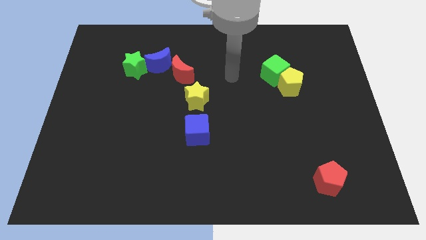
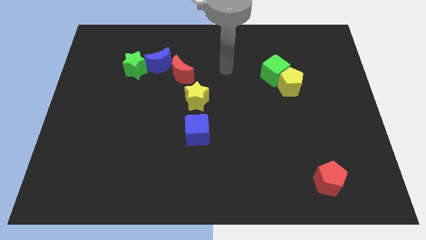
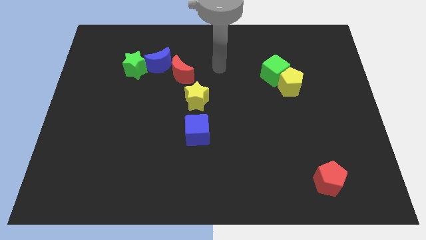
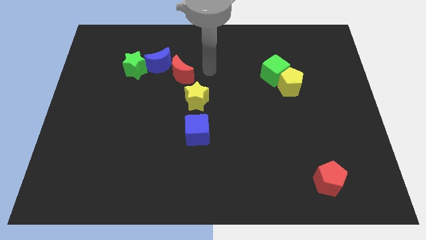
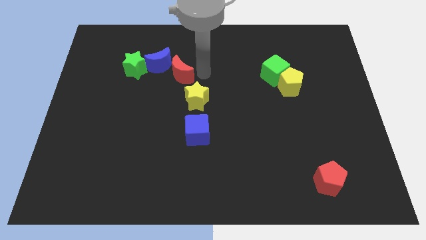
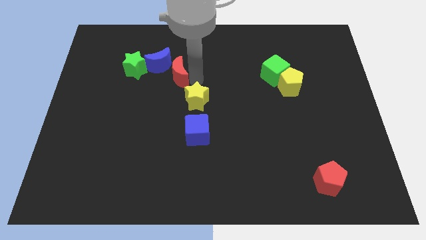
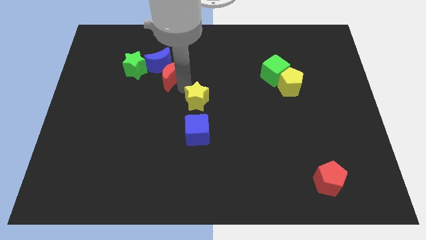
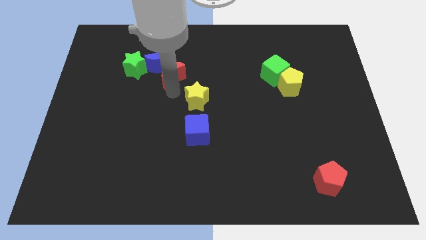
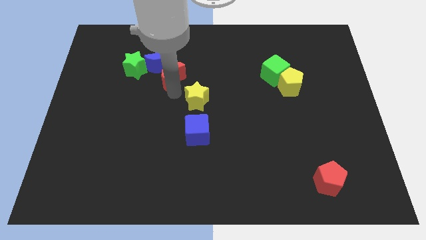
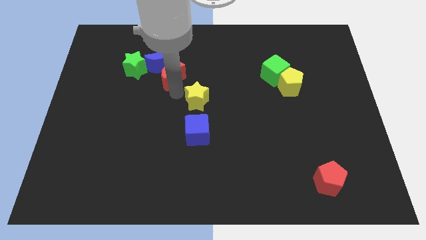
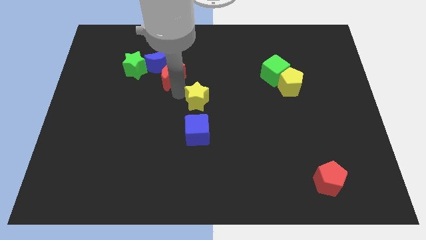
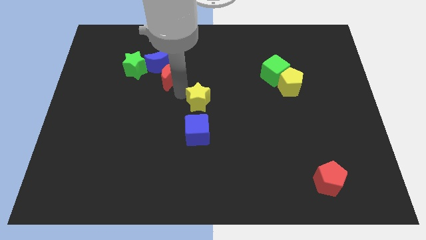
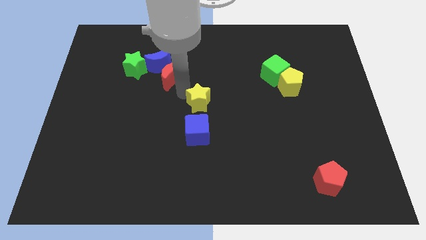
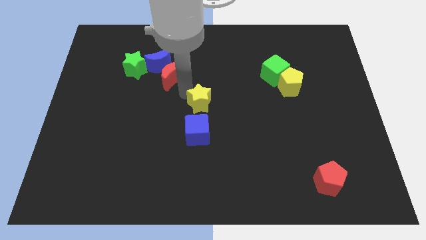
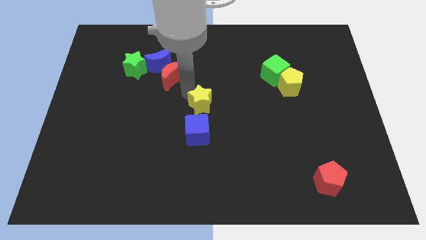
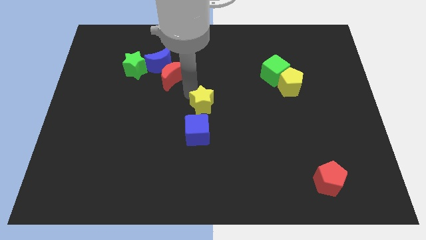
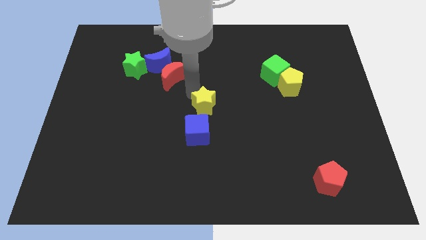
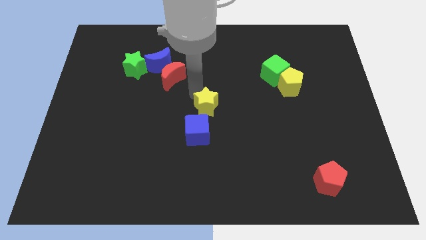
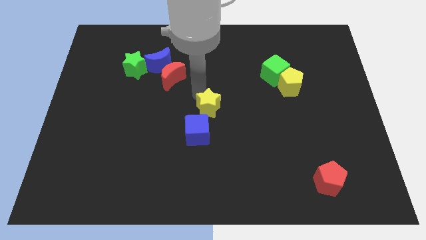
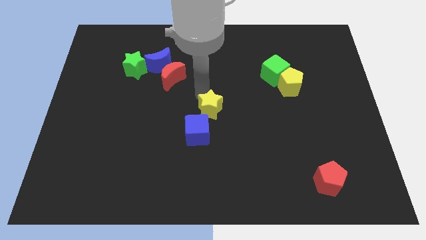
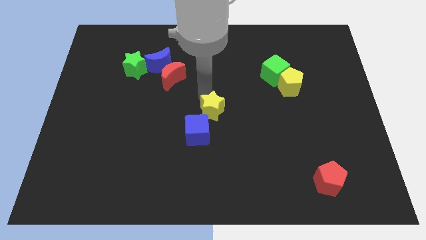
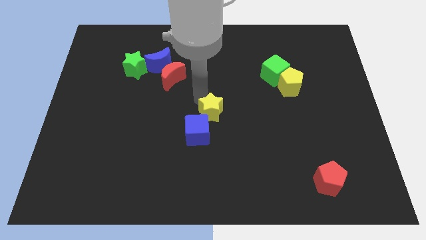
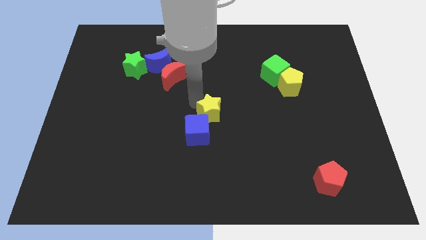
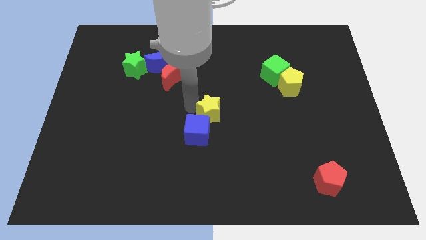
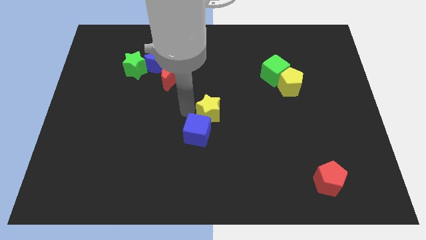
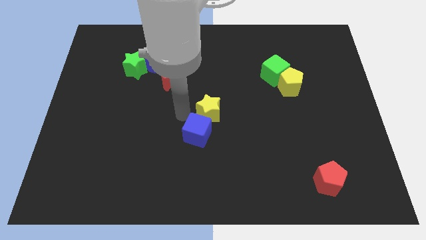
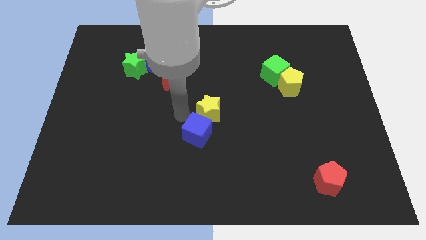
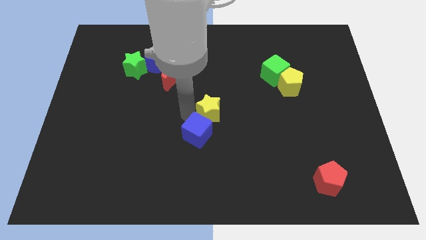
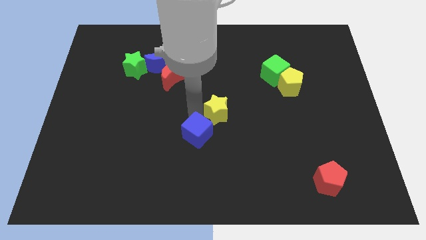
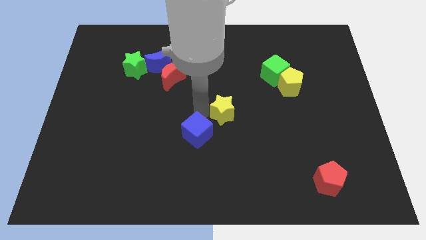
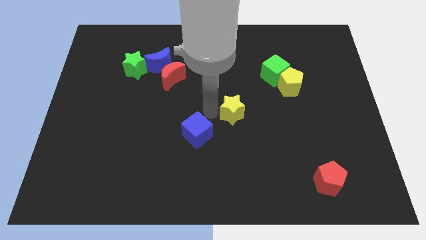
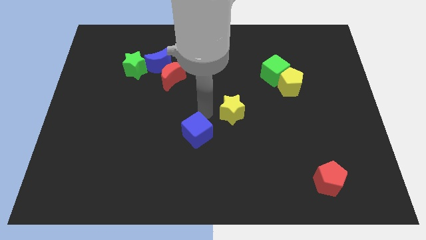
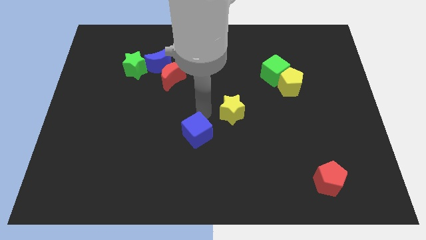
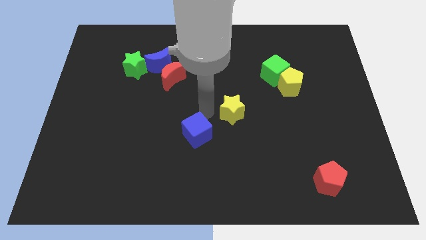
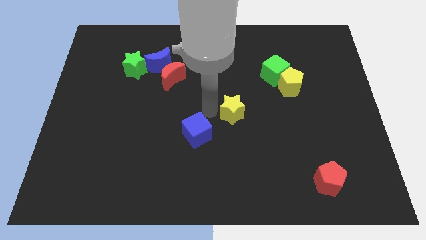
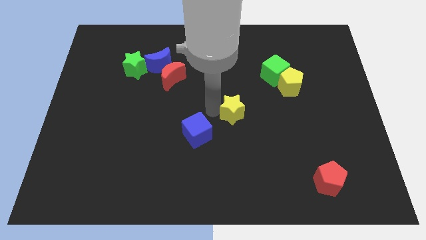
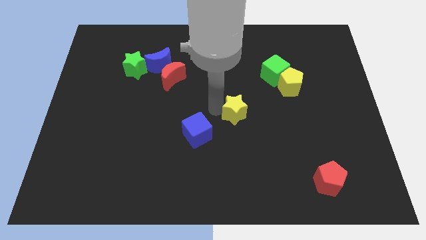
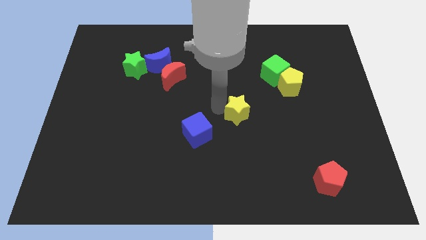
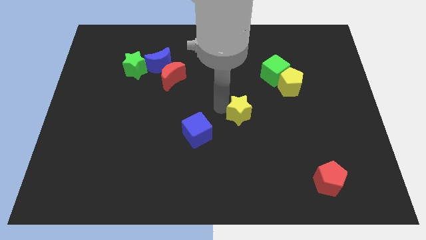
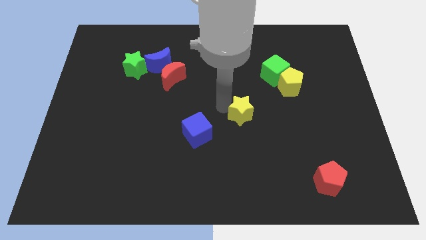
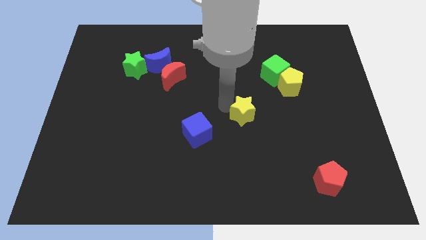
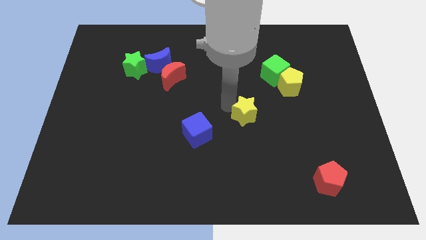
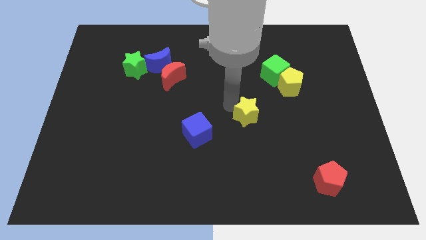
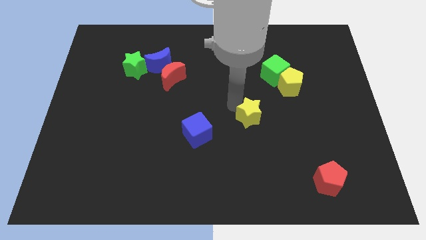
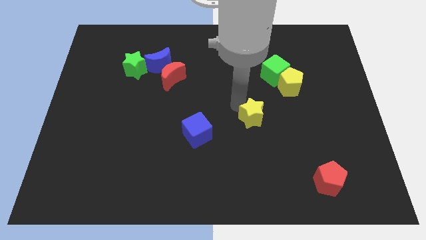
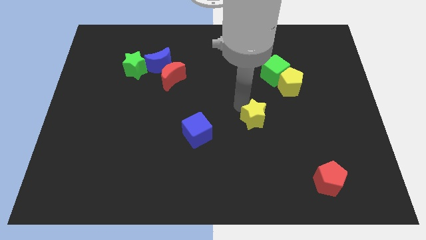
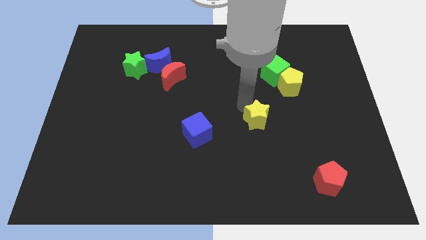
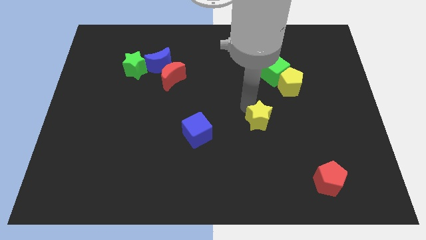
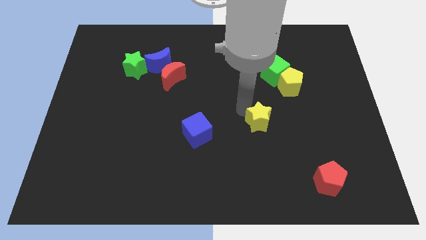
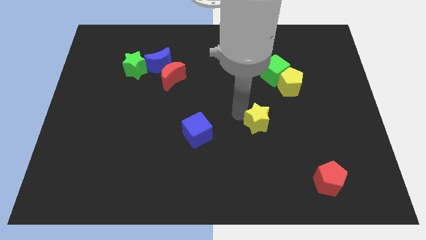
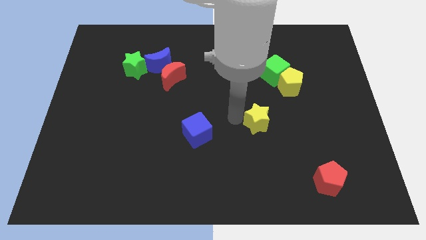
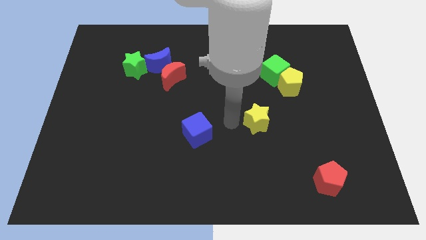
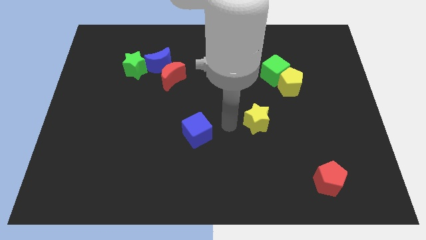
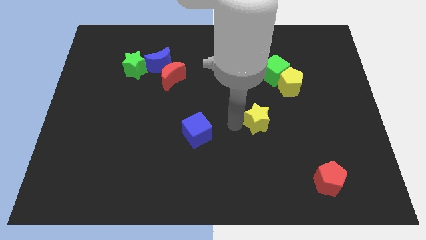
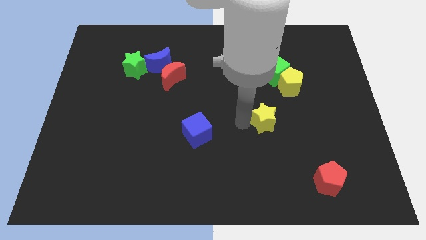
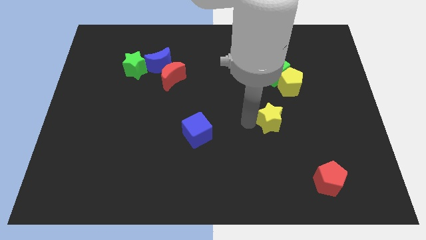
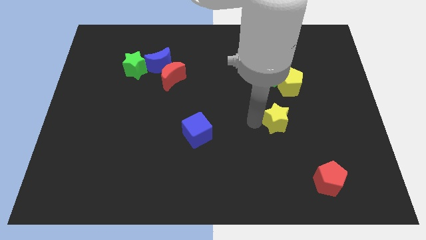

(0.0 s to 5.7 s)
slide the yellow star to the bottom side of the yellow pentagon

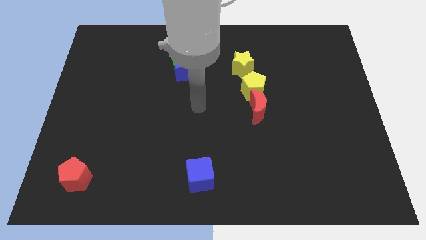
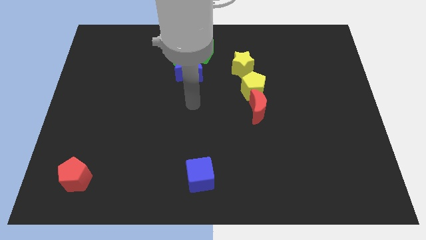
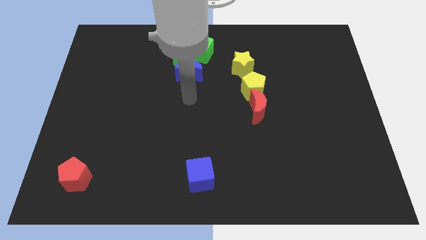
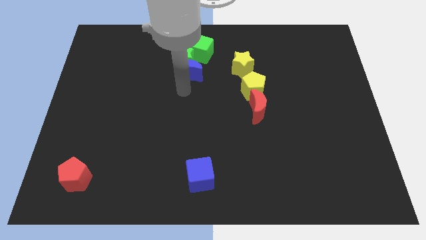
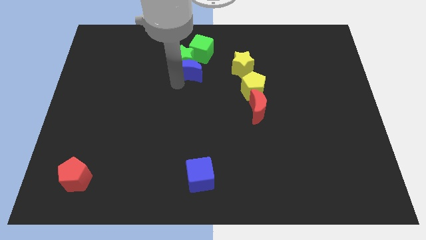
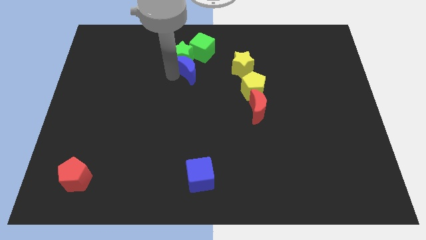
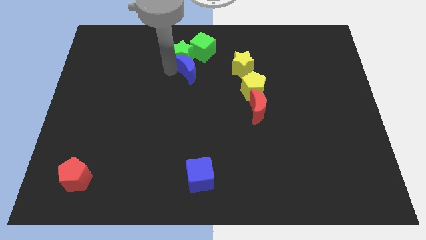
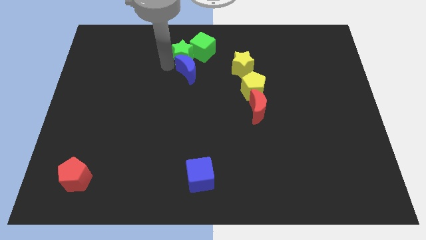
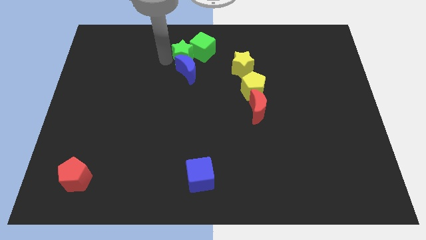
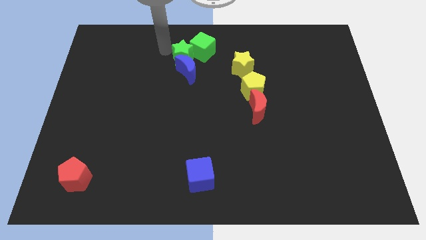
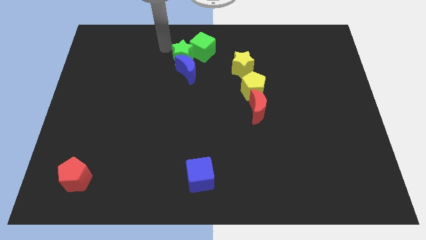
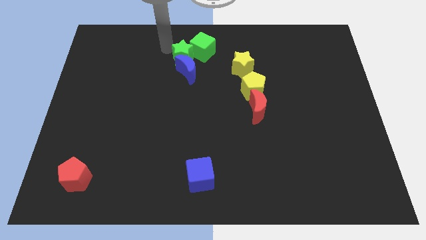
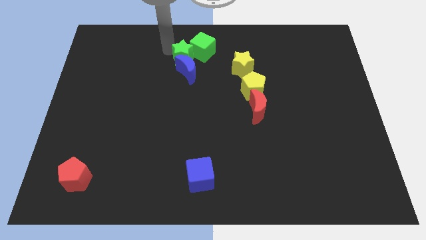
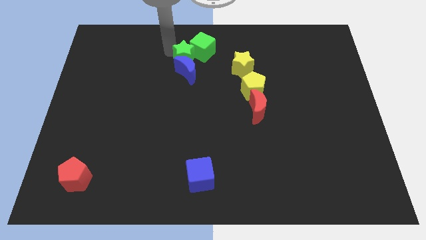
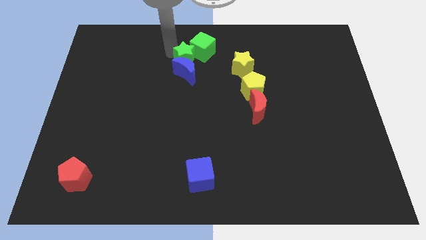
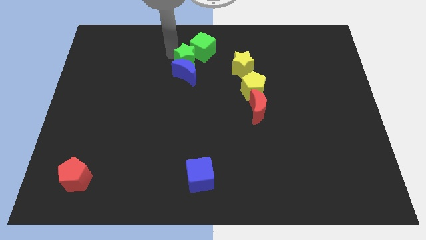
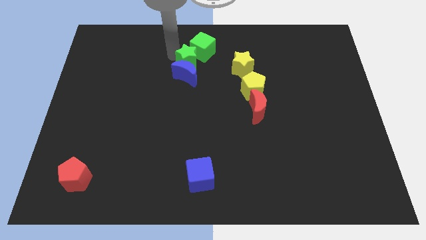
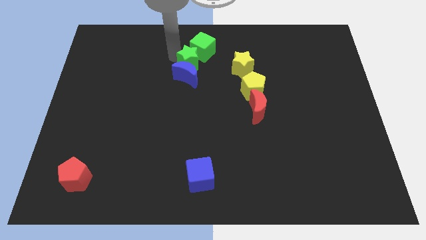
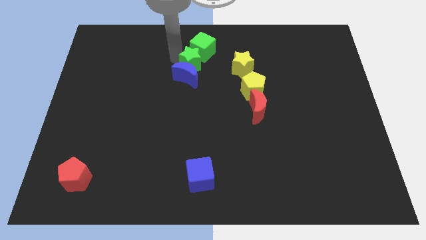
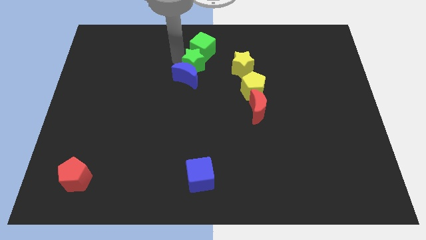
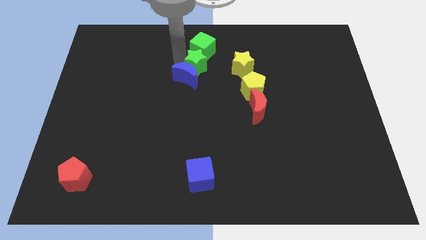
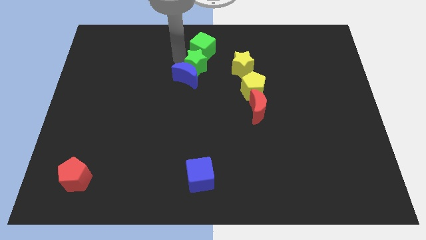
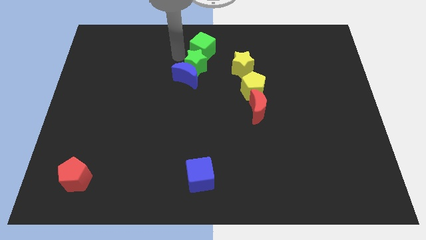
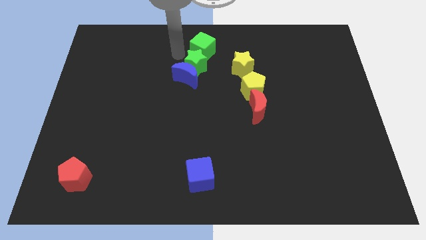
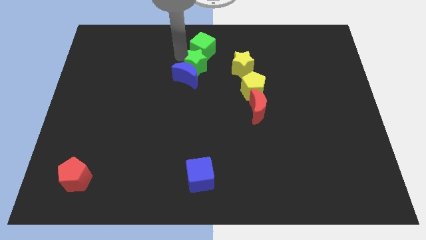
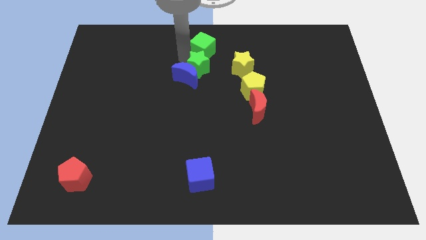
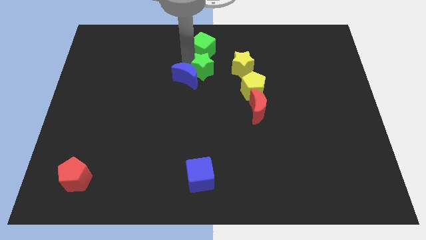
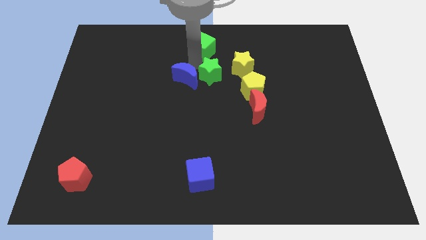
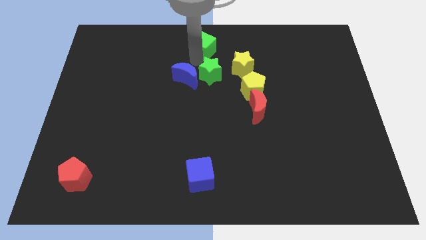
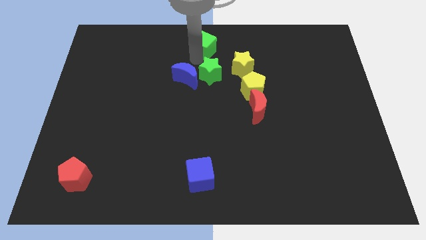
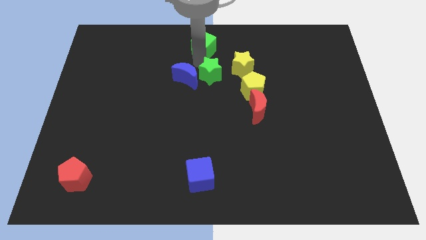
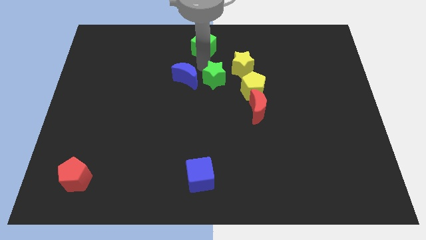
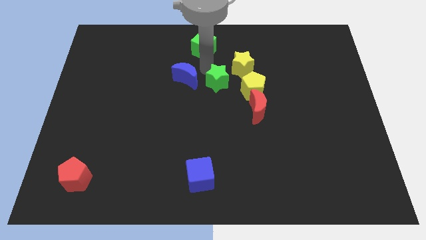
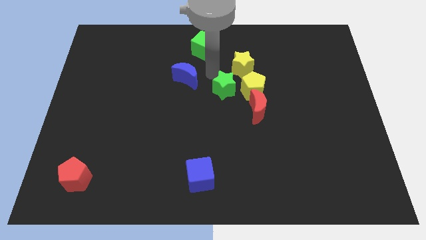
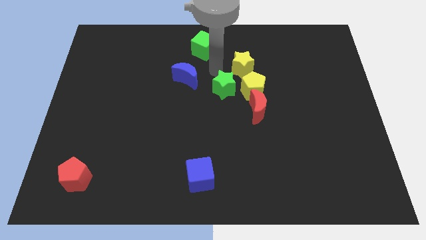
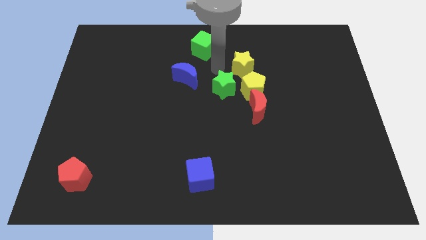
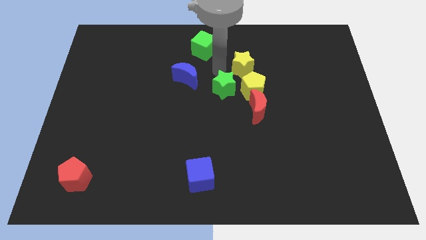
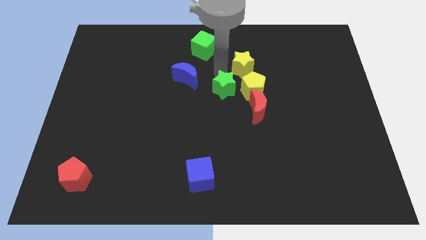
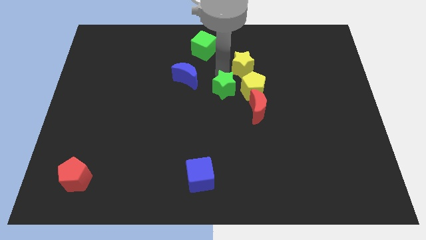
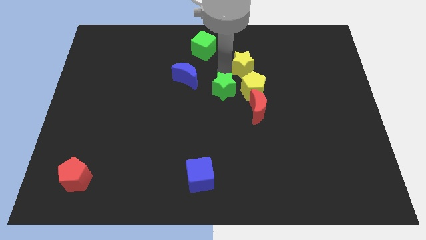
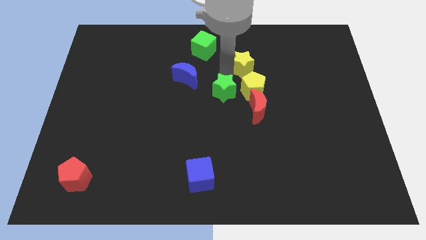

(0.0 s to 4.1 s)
push the green star diagonally down and to the left of the yellow pentagon
